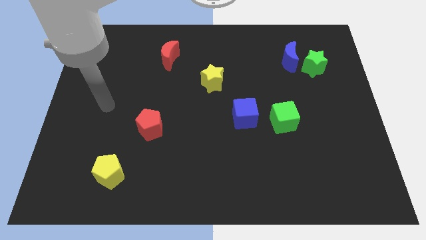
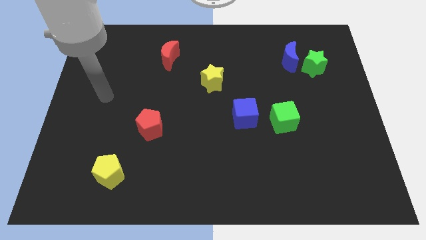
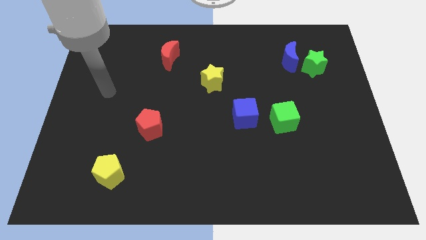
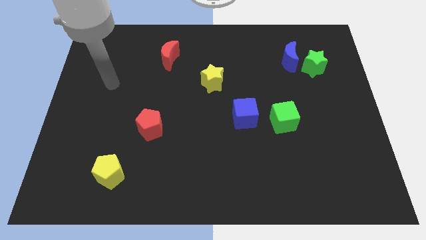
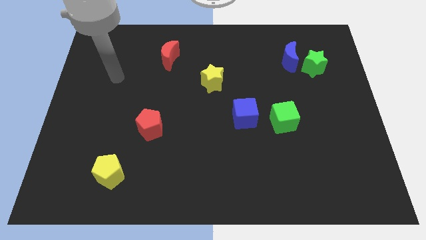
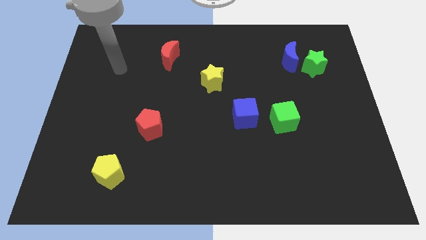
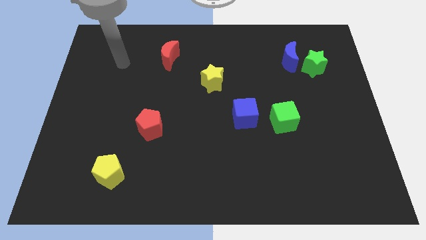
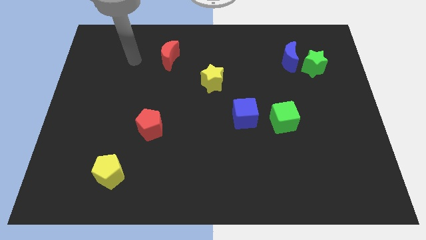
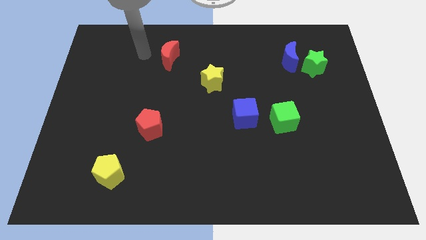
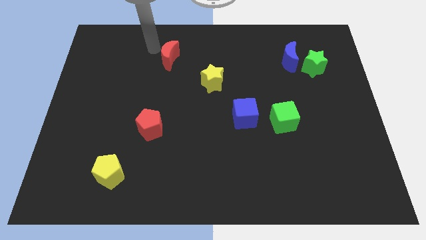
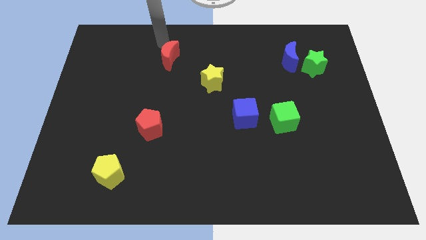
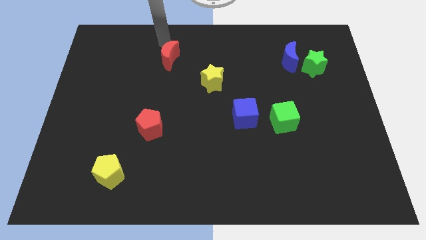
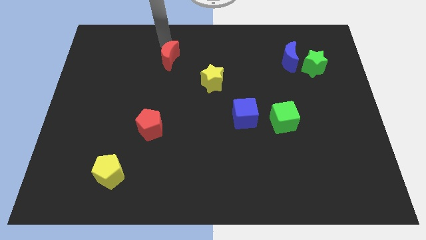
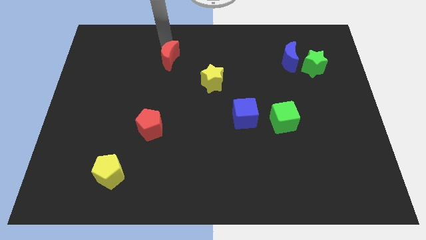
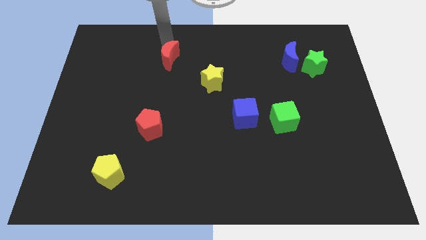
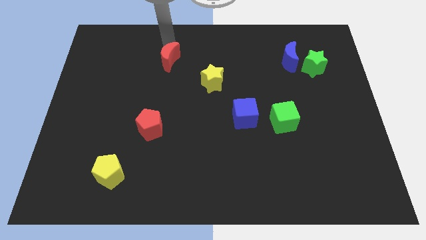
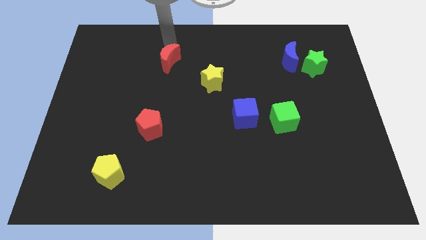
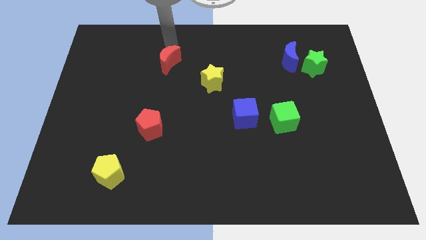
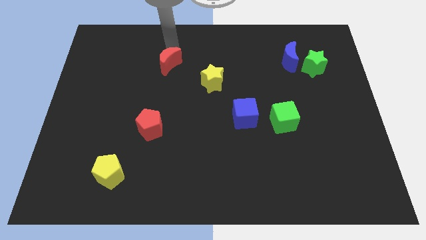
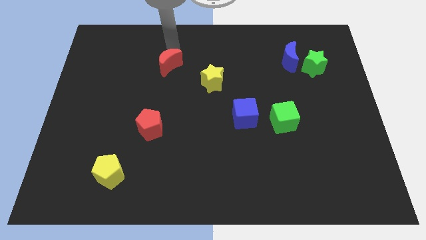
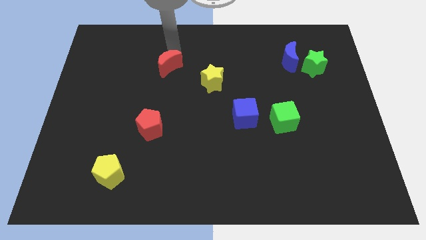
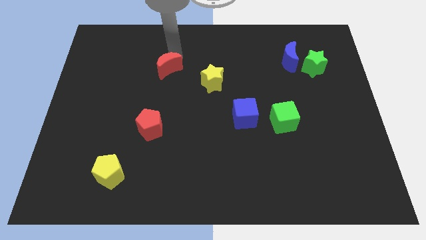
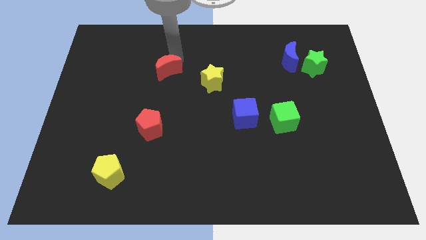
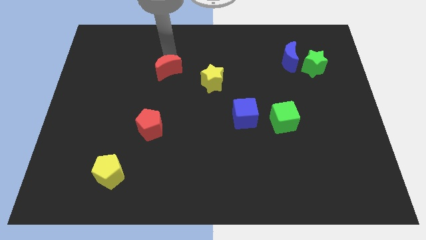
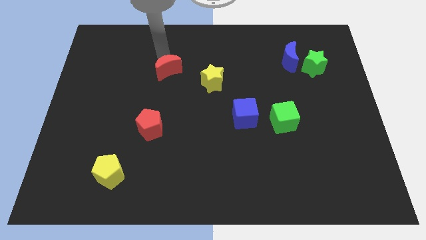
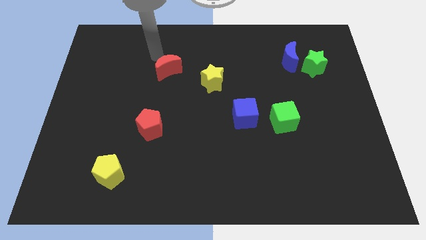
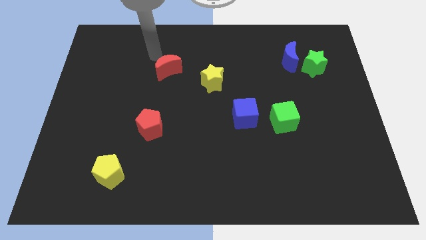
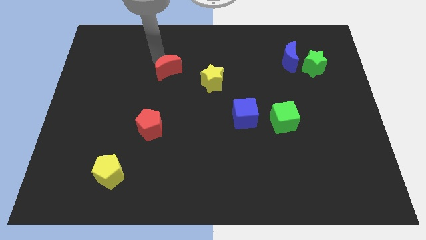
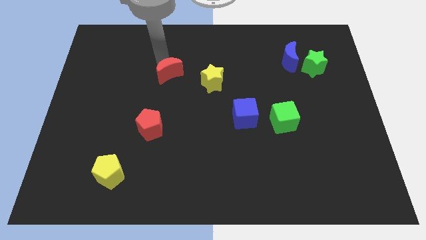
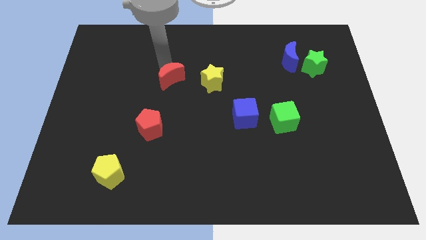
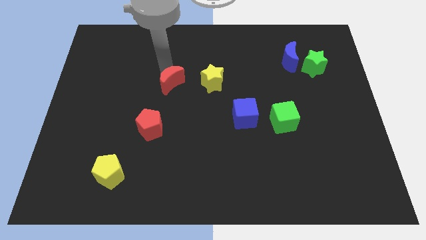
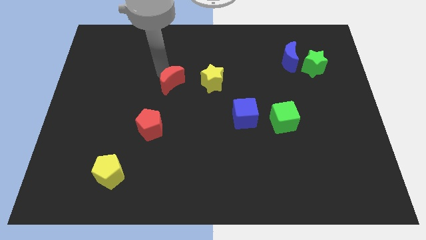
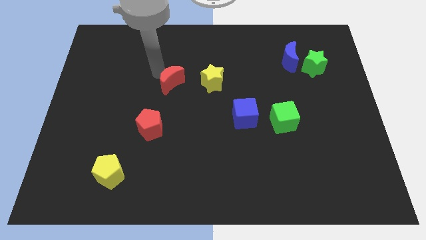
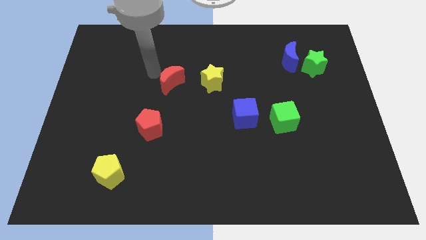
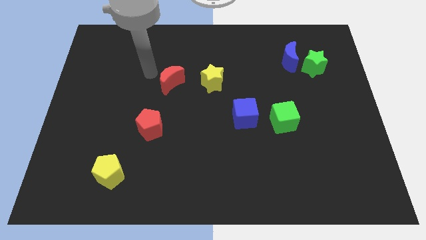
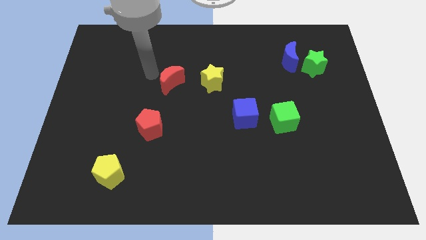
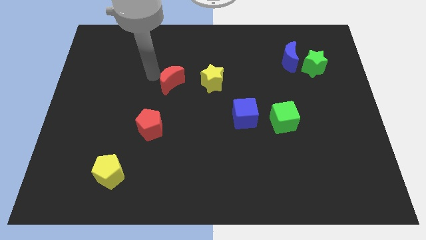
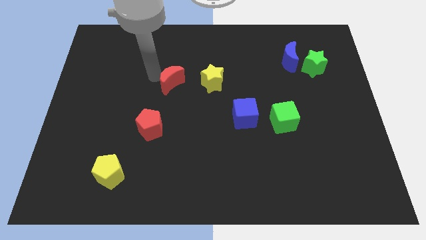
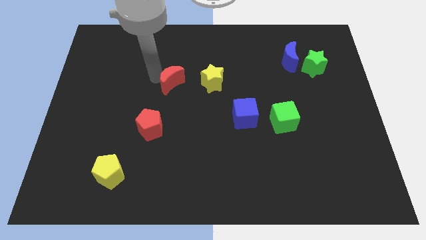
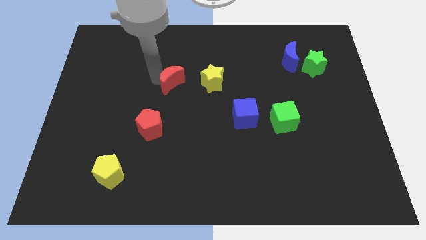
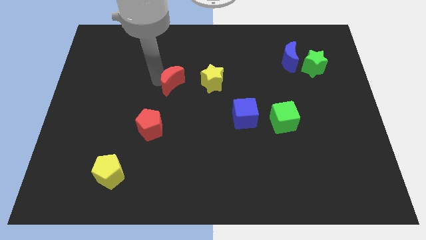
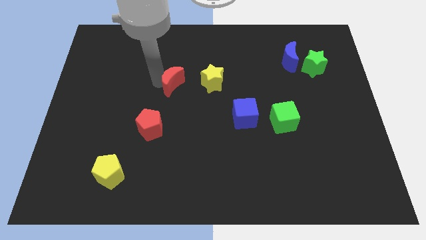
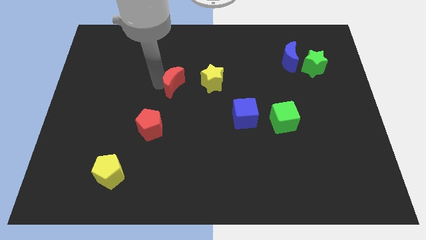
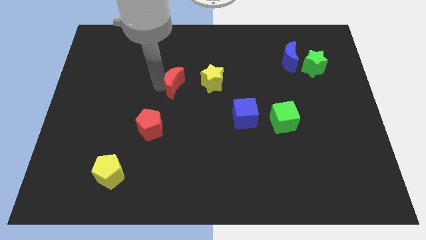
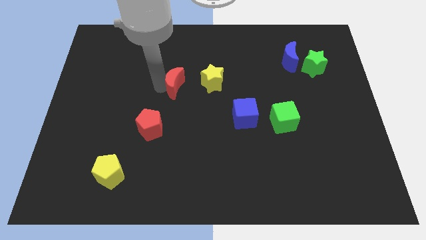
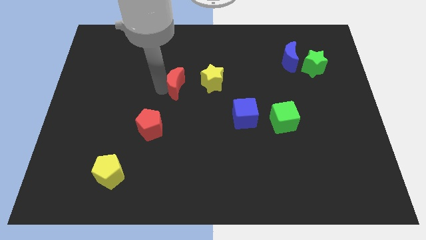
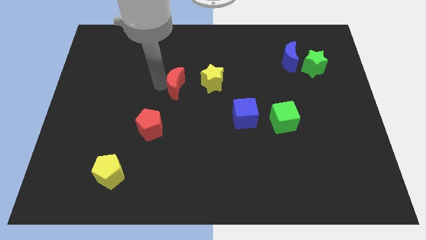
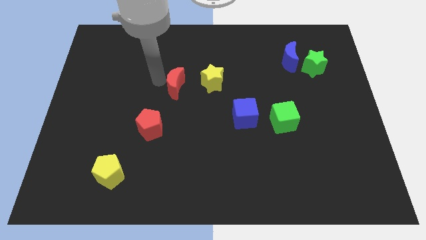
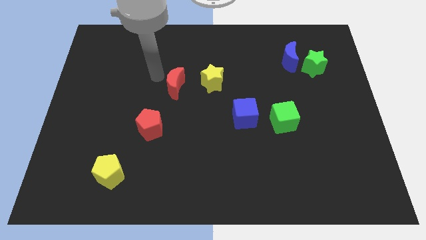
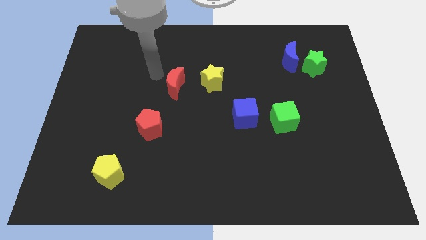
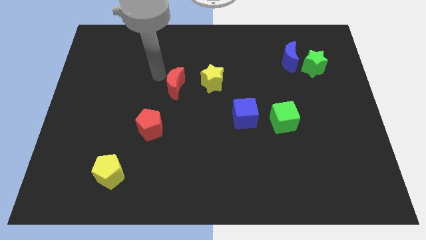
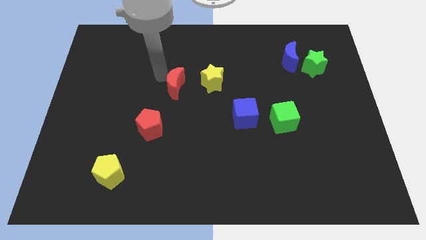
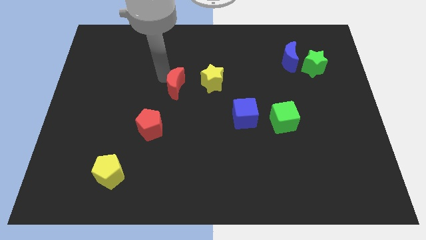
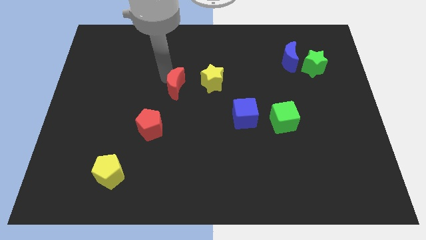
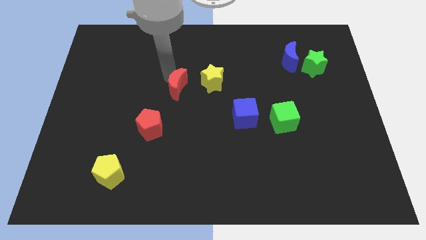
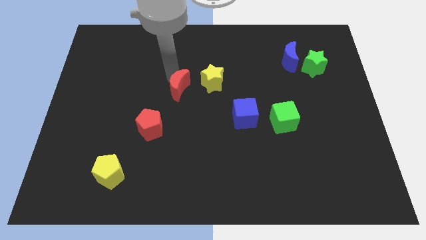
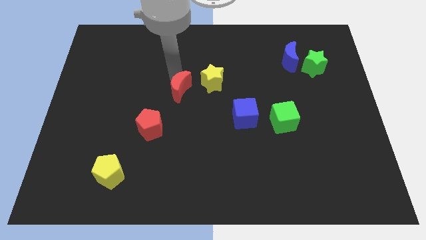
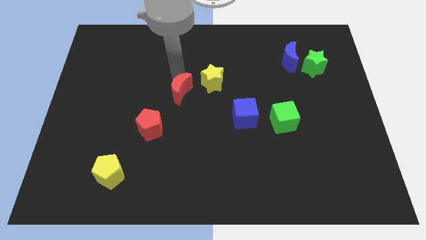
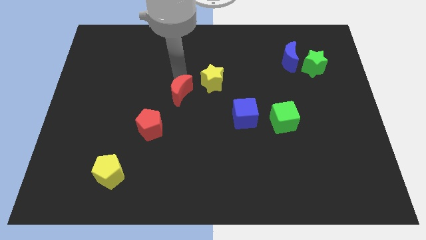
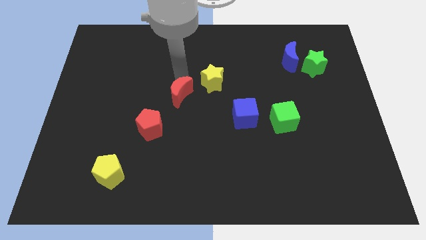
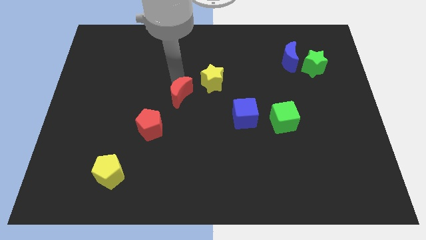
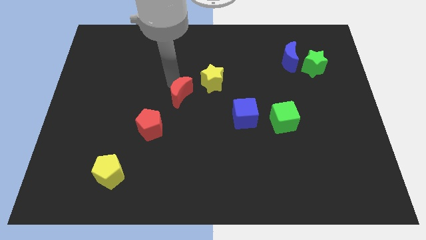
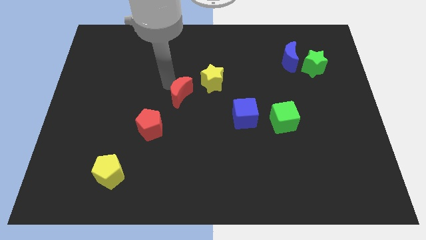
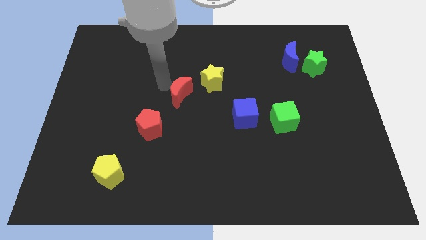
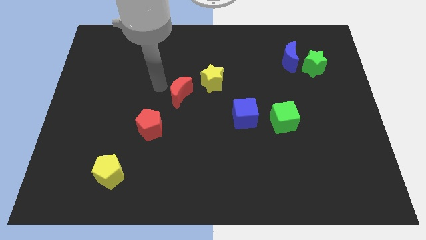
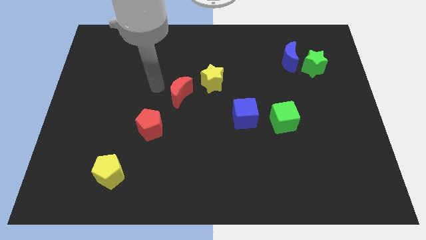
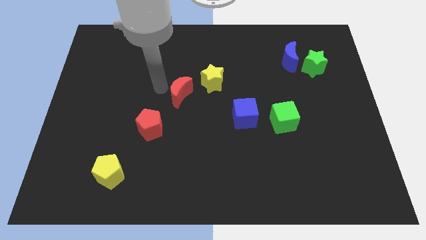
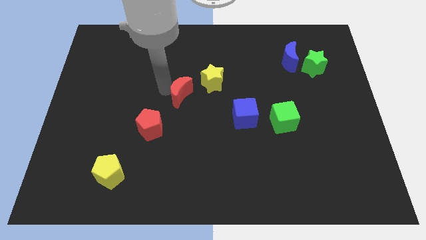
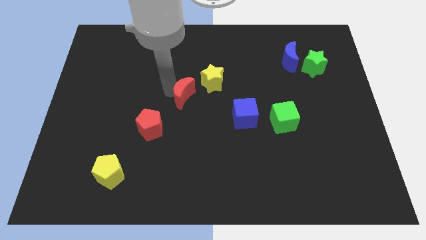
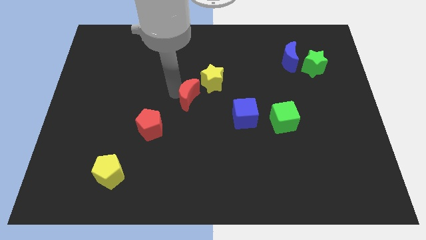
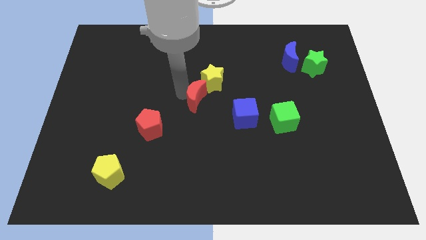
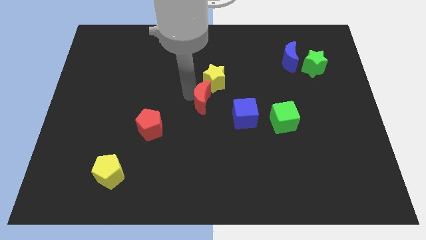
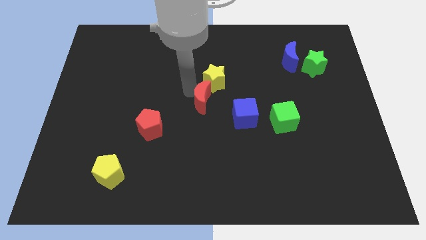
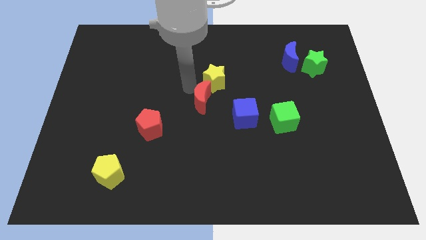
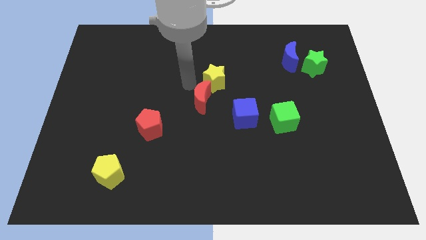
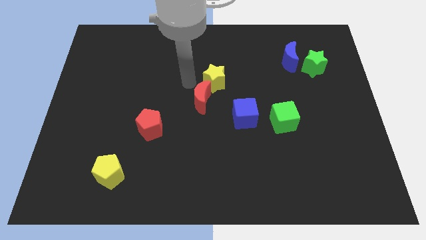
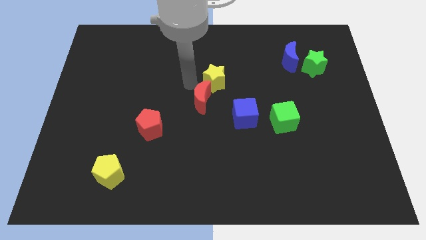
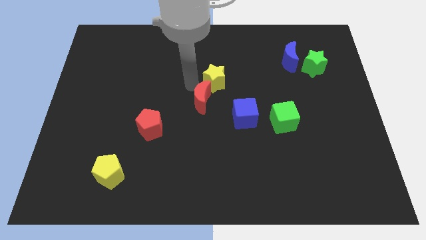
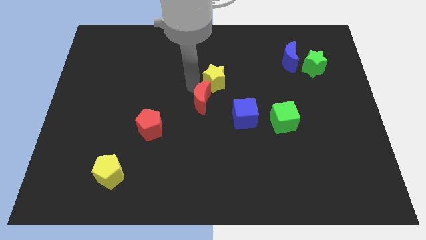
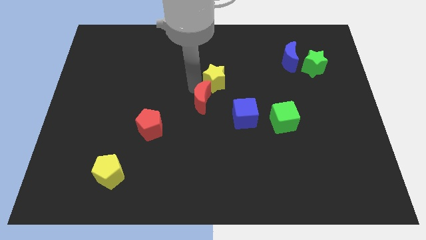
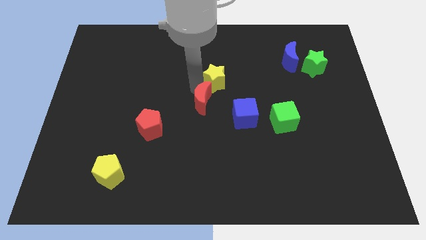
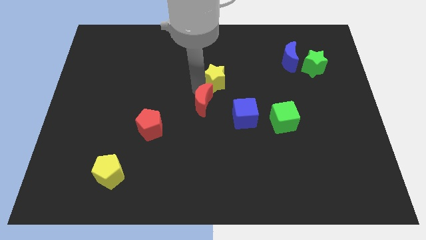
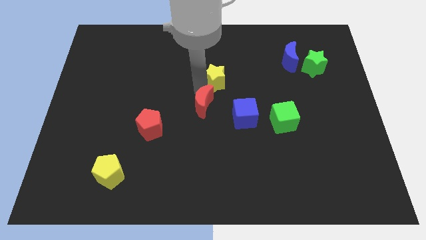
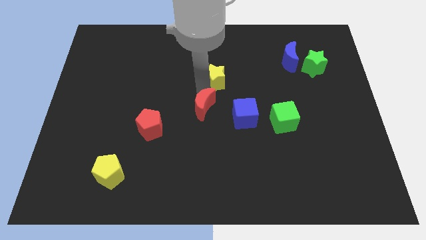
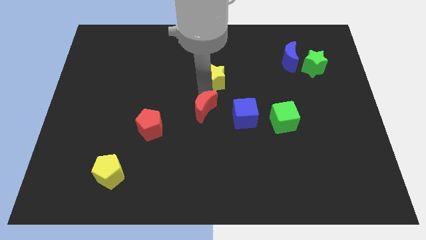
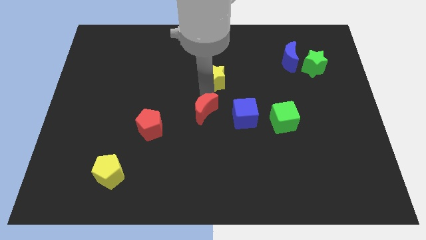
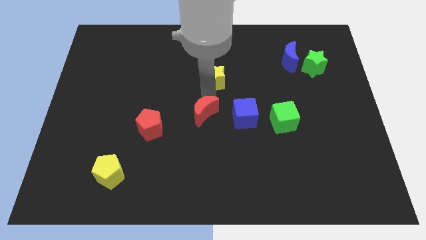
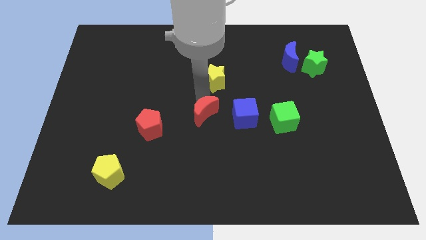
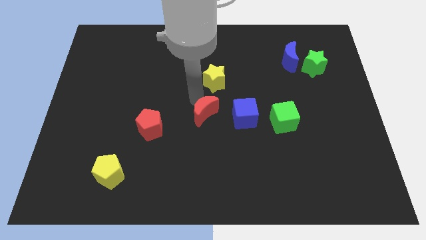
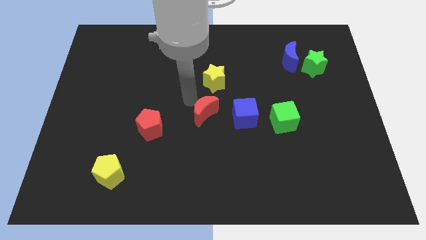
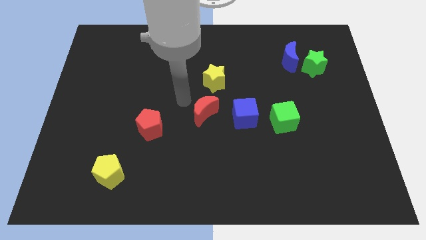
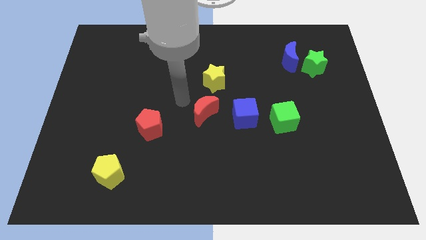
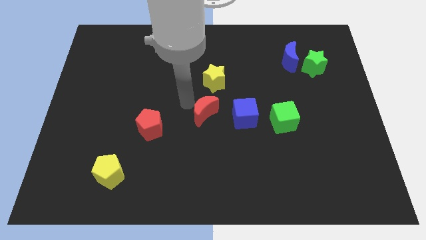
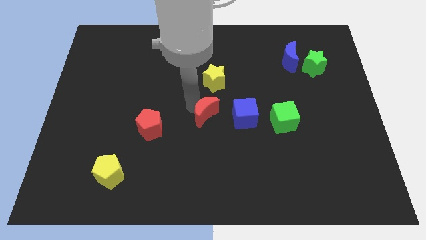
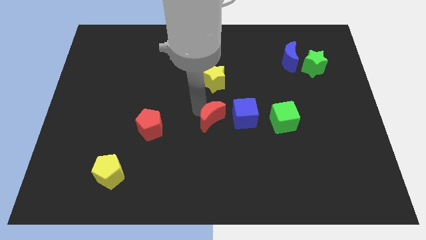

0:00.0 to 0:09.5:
slide the red moon downwards and right
